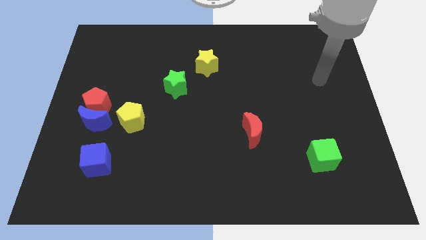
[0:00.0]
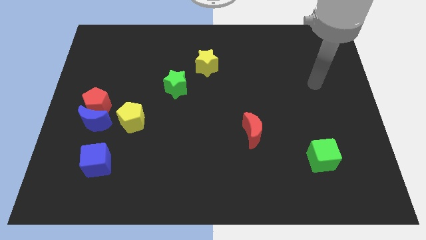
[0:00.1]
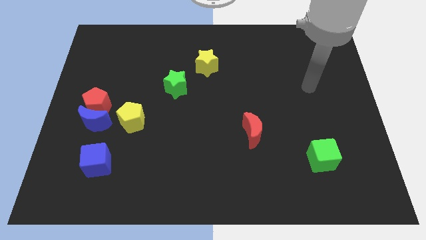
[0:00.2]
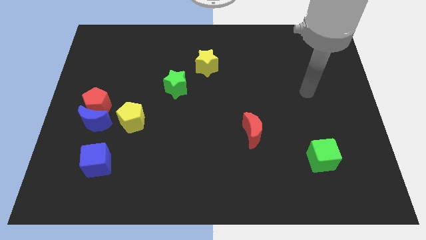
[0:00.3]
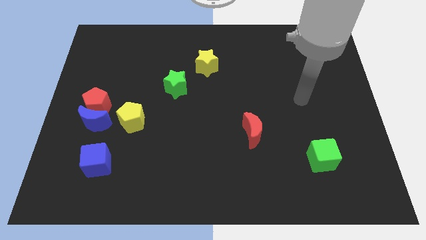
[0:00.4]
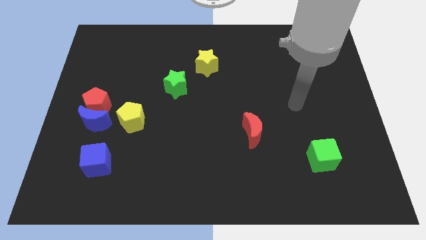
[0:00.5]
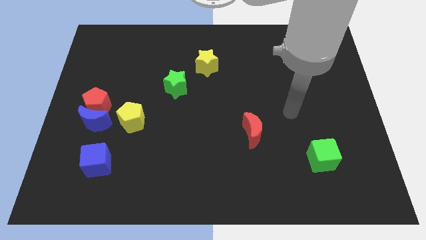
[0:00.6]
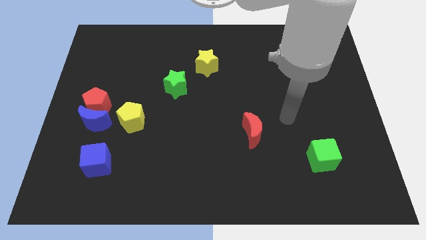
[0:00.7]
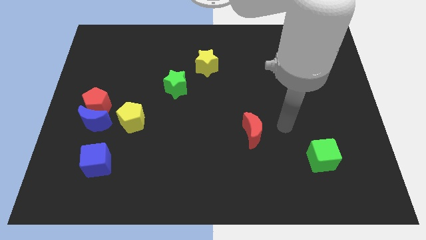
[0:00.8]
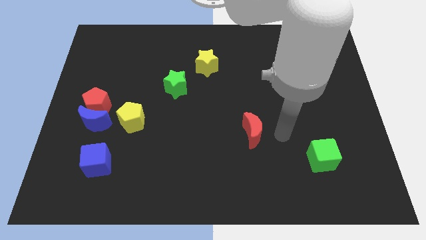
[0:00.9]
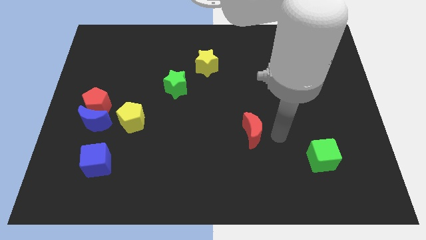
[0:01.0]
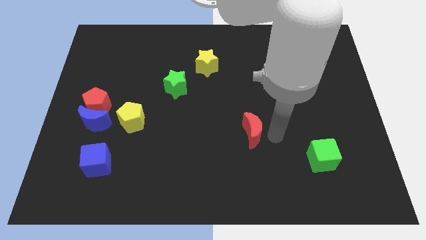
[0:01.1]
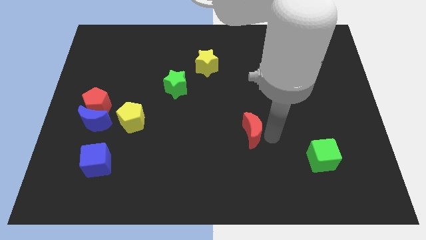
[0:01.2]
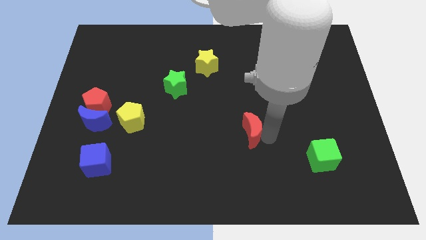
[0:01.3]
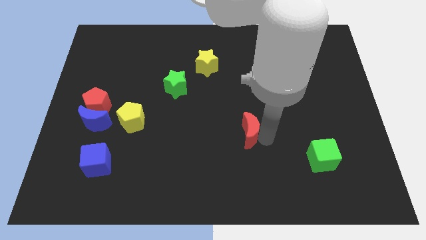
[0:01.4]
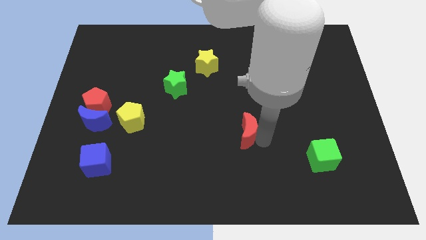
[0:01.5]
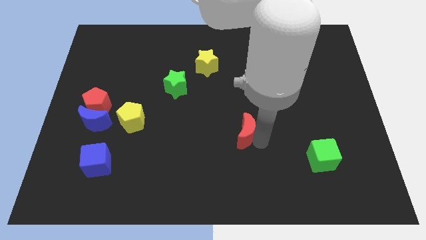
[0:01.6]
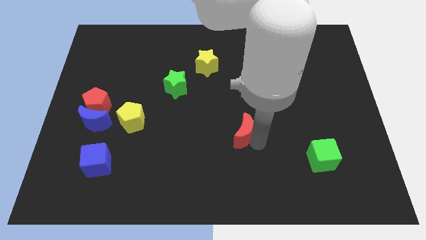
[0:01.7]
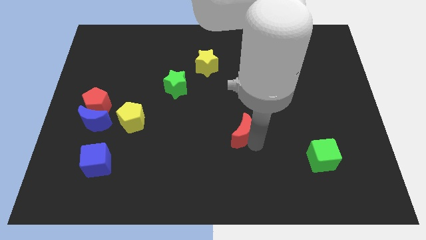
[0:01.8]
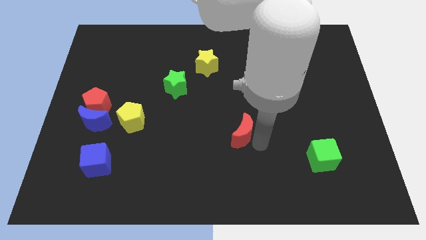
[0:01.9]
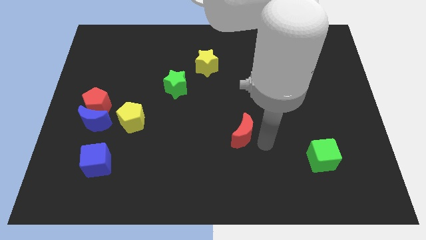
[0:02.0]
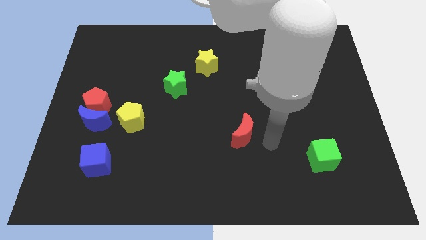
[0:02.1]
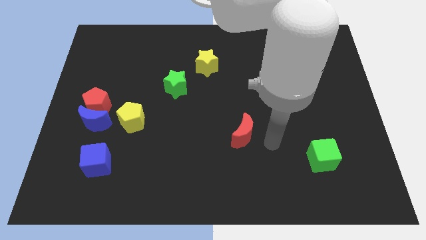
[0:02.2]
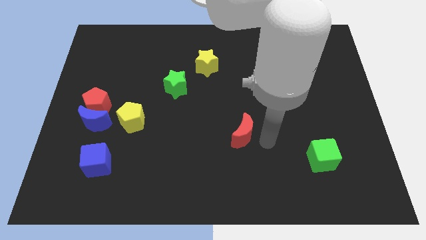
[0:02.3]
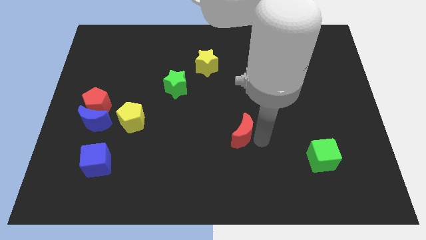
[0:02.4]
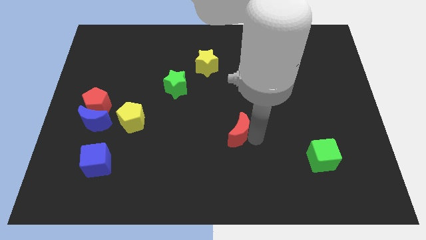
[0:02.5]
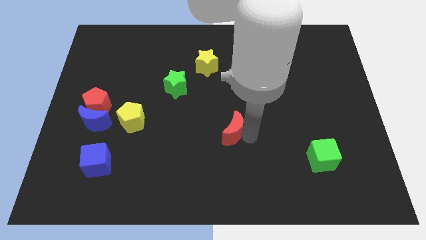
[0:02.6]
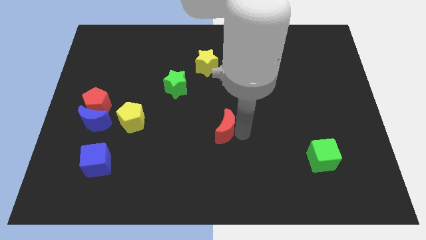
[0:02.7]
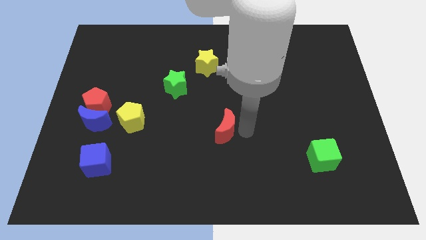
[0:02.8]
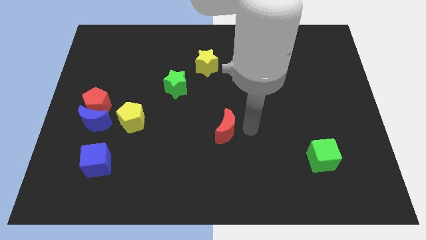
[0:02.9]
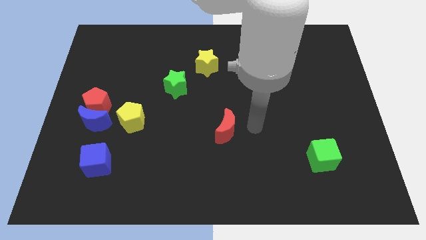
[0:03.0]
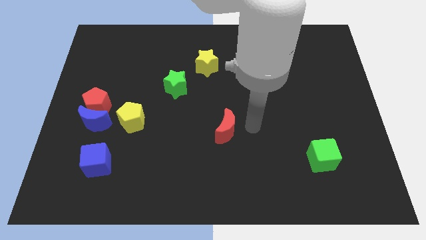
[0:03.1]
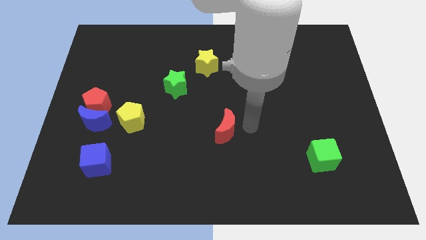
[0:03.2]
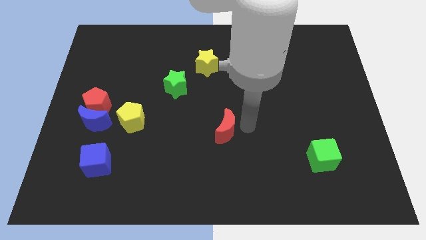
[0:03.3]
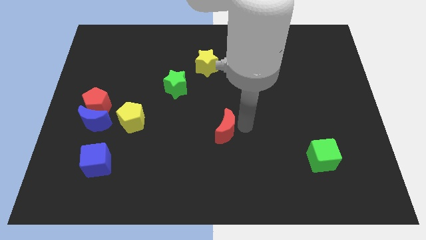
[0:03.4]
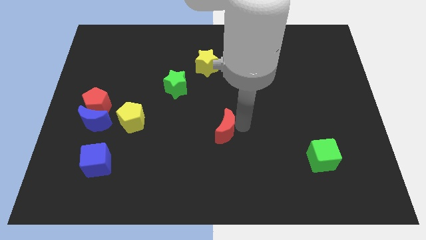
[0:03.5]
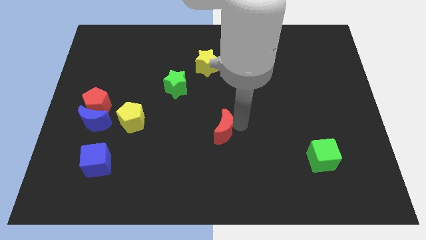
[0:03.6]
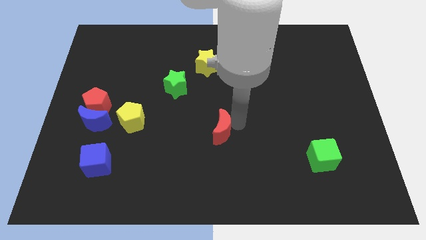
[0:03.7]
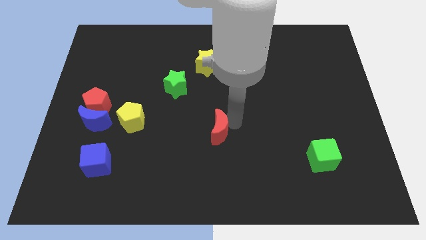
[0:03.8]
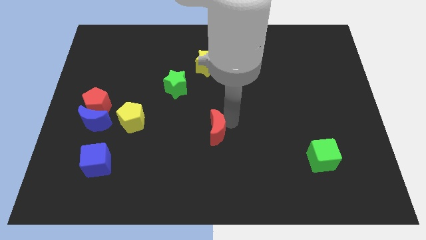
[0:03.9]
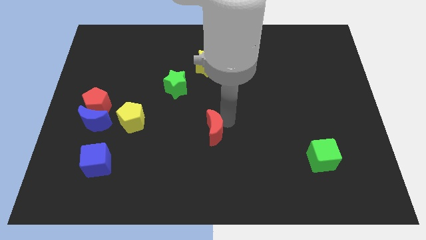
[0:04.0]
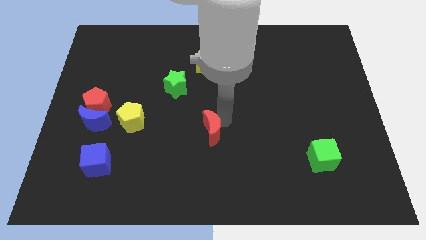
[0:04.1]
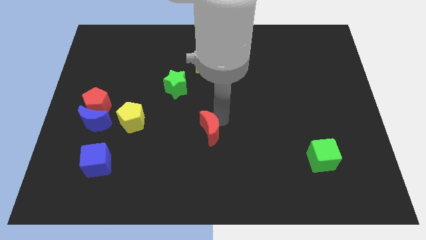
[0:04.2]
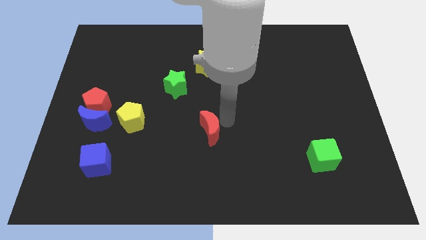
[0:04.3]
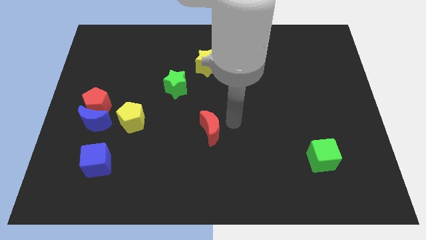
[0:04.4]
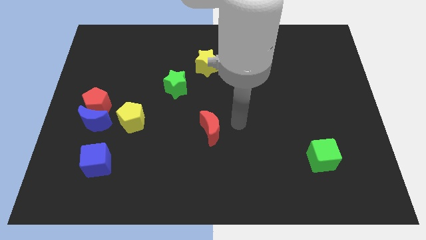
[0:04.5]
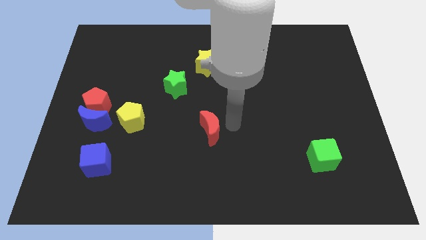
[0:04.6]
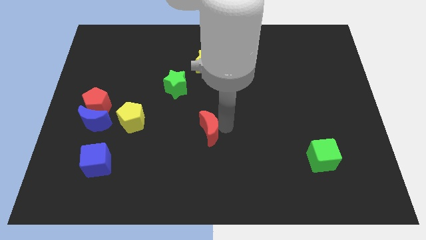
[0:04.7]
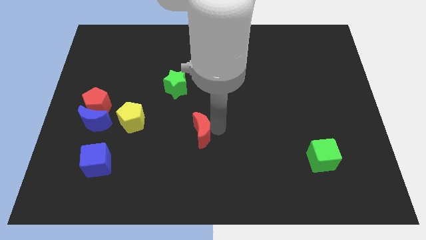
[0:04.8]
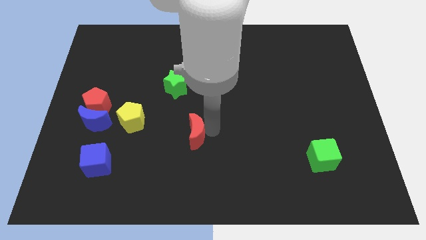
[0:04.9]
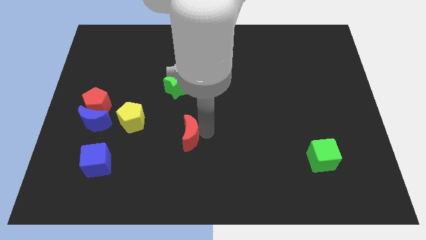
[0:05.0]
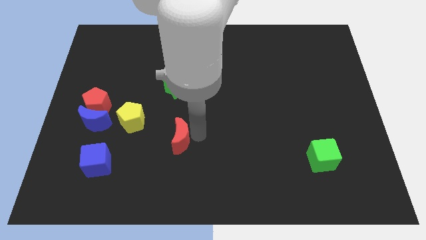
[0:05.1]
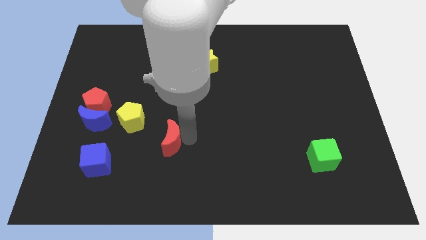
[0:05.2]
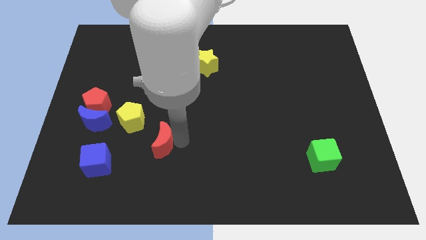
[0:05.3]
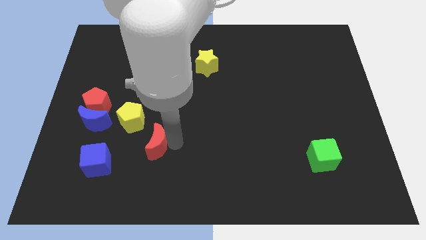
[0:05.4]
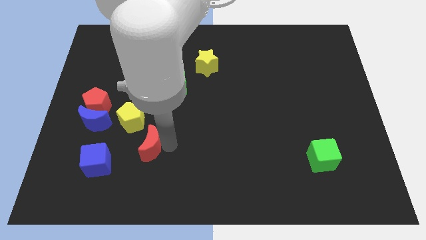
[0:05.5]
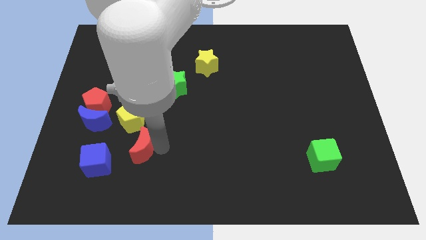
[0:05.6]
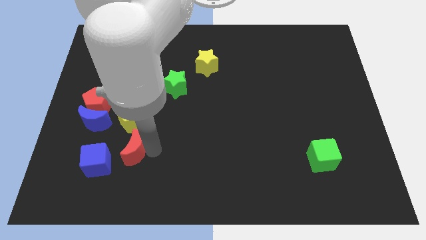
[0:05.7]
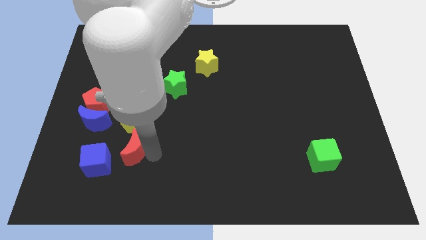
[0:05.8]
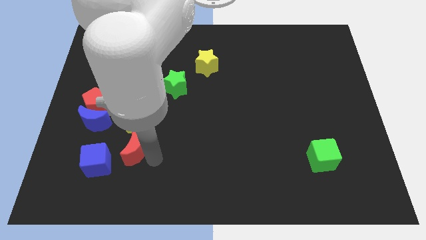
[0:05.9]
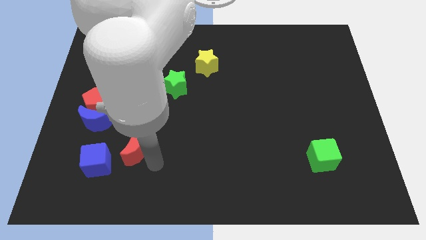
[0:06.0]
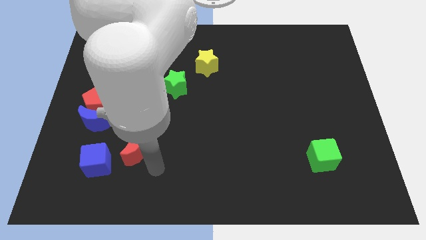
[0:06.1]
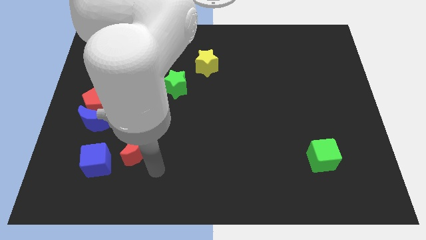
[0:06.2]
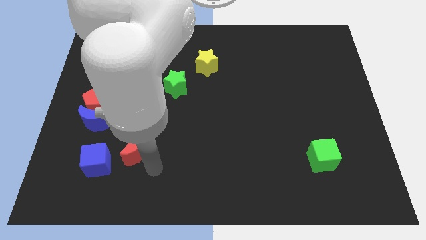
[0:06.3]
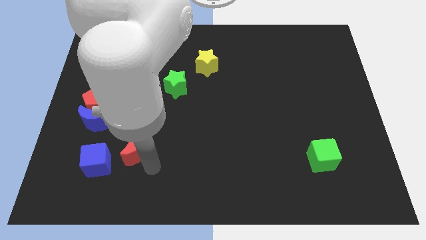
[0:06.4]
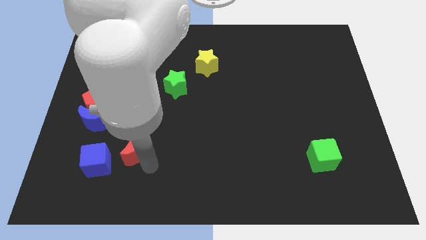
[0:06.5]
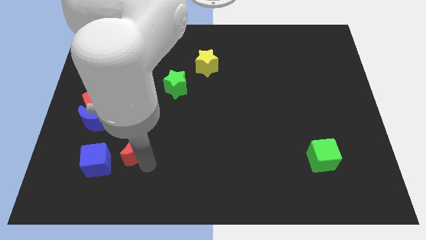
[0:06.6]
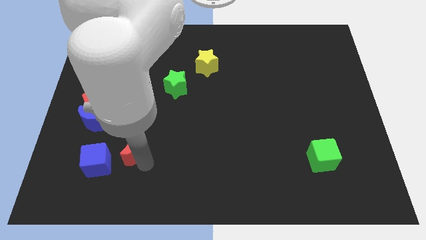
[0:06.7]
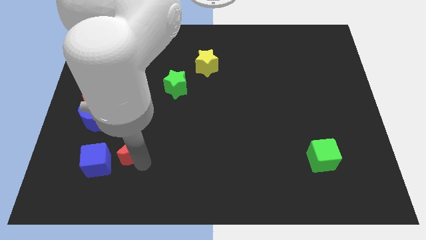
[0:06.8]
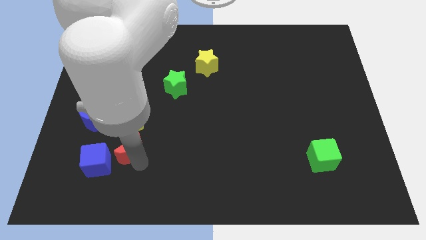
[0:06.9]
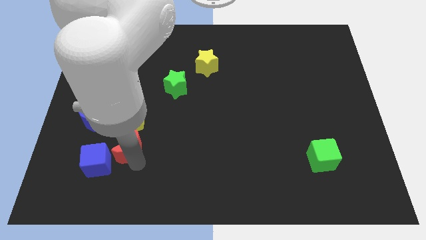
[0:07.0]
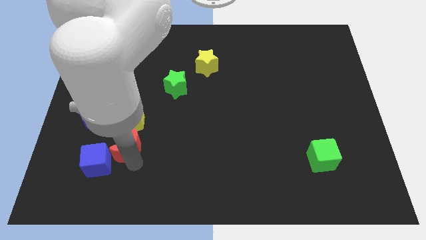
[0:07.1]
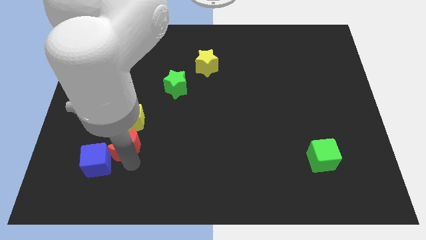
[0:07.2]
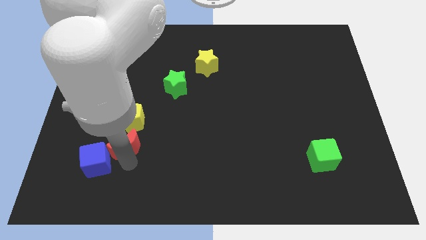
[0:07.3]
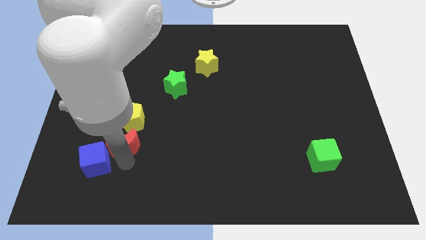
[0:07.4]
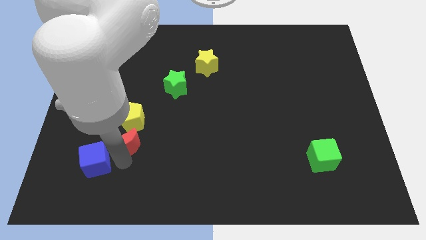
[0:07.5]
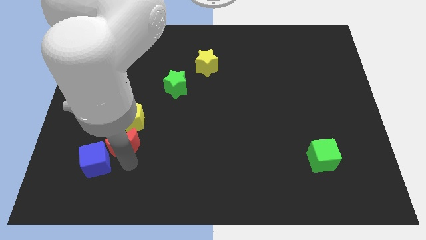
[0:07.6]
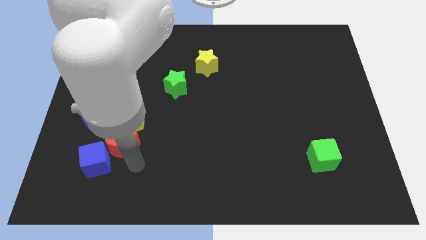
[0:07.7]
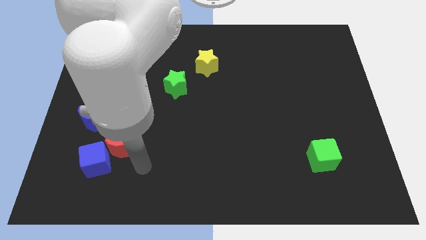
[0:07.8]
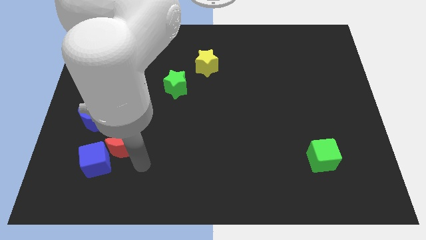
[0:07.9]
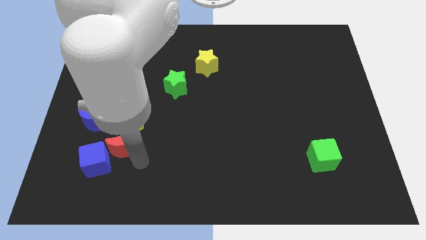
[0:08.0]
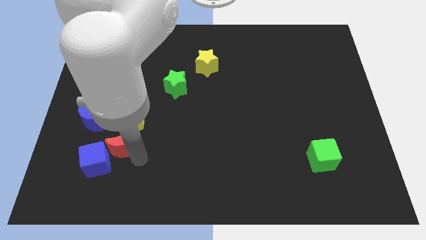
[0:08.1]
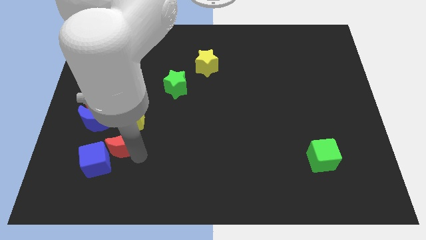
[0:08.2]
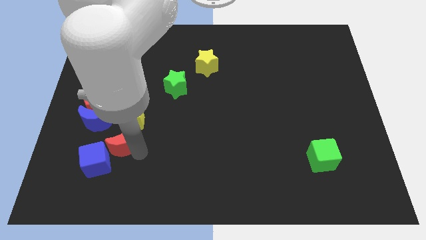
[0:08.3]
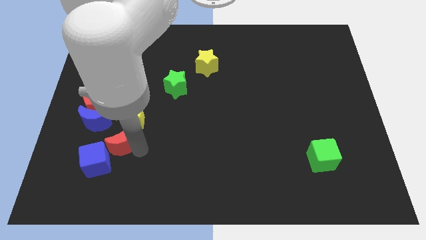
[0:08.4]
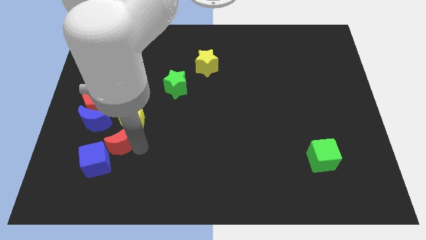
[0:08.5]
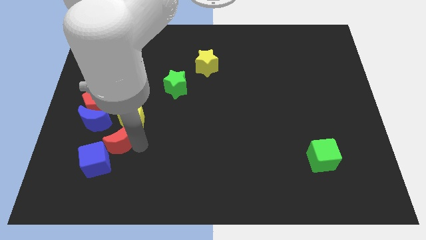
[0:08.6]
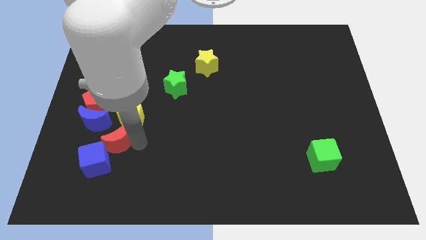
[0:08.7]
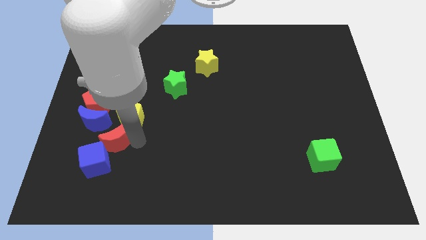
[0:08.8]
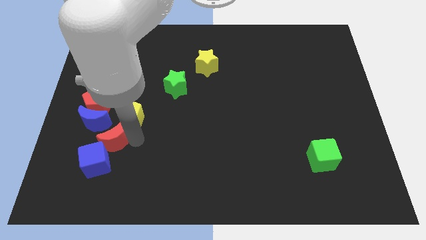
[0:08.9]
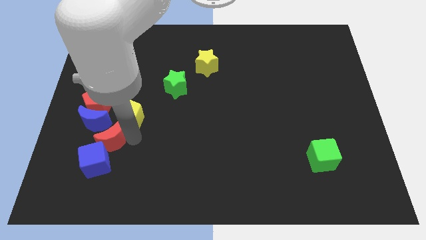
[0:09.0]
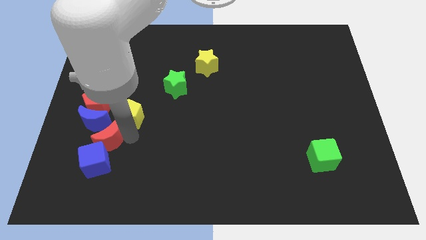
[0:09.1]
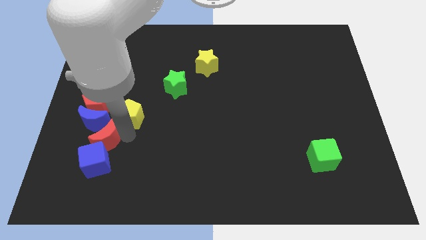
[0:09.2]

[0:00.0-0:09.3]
slide the red moon close to the blue moon
